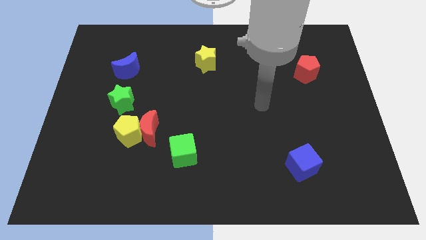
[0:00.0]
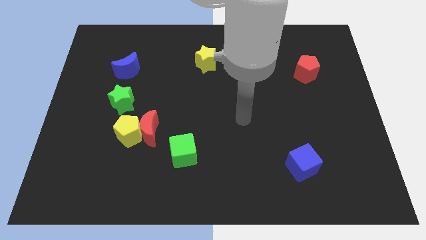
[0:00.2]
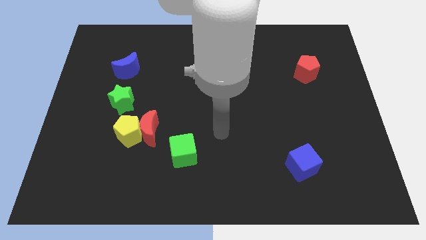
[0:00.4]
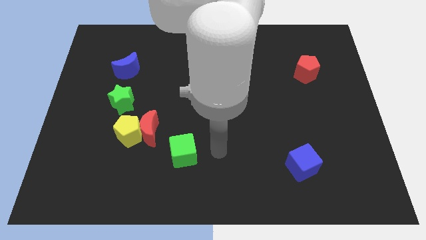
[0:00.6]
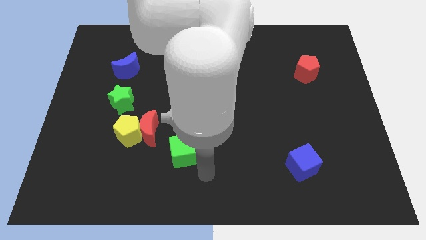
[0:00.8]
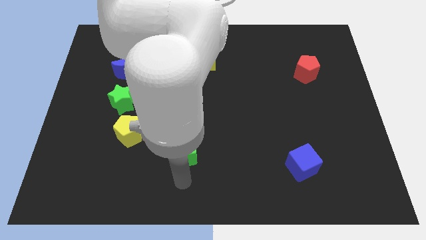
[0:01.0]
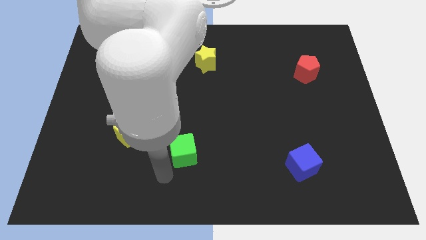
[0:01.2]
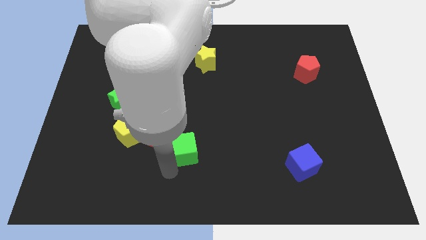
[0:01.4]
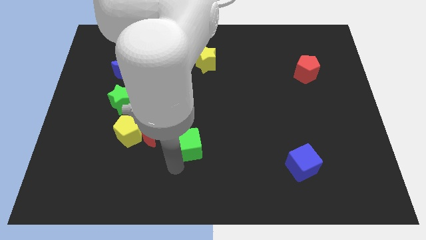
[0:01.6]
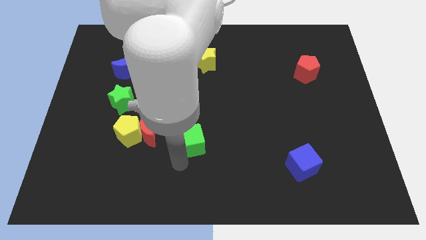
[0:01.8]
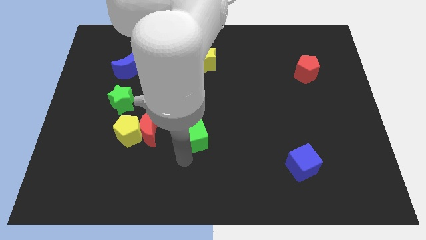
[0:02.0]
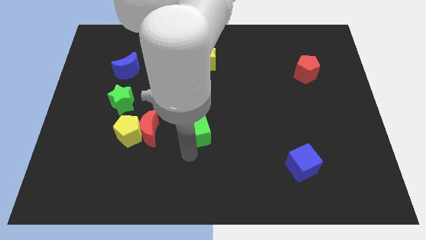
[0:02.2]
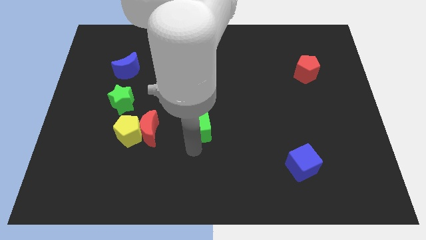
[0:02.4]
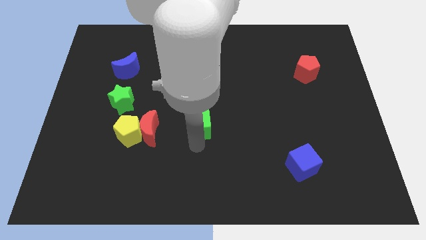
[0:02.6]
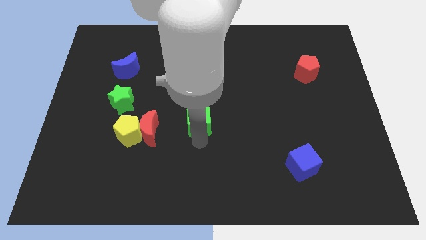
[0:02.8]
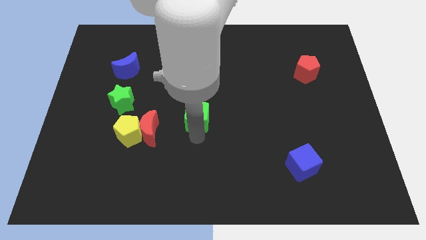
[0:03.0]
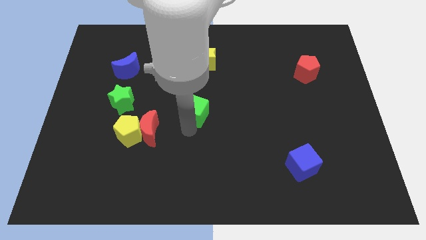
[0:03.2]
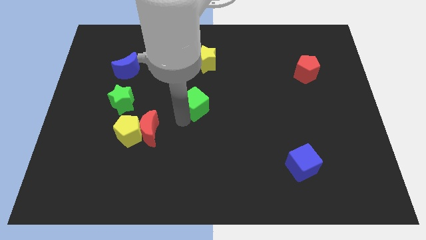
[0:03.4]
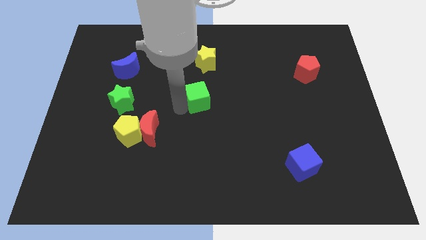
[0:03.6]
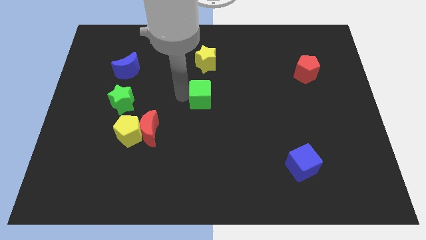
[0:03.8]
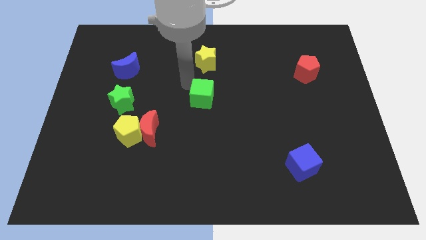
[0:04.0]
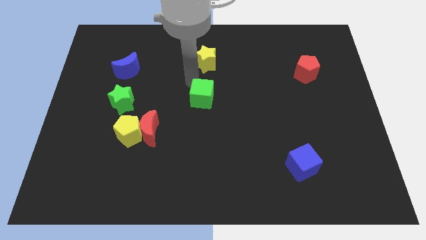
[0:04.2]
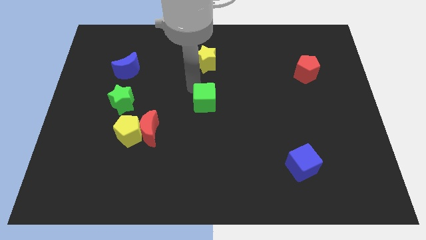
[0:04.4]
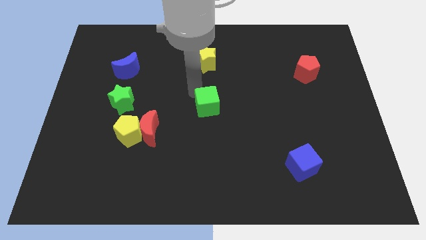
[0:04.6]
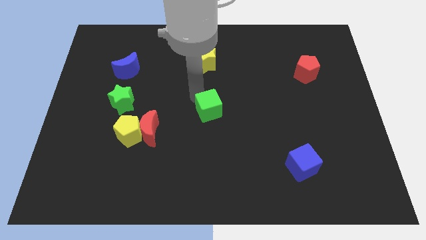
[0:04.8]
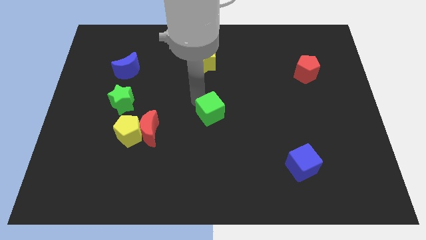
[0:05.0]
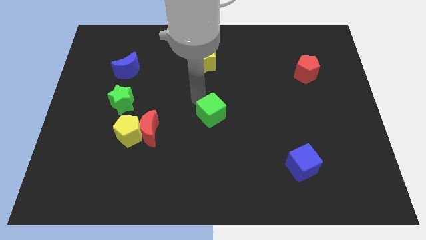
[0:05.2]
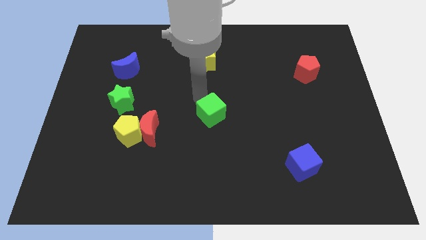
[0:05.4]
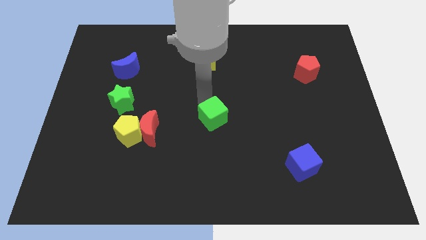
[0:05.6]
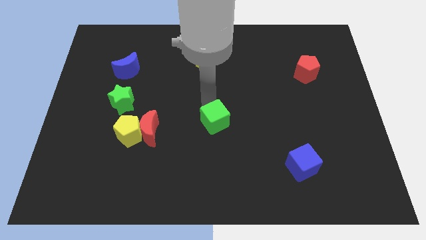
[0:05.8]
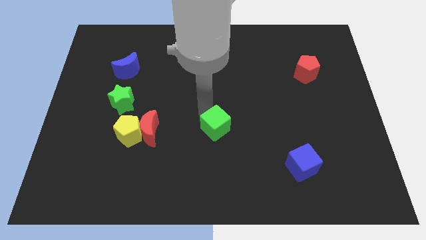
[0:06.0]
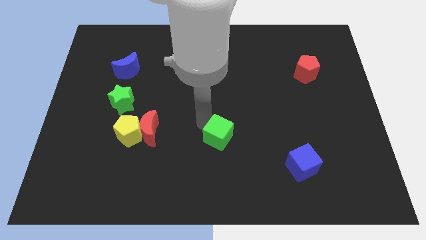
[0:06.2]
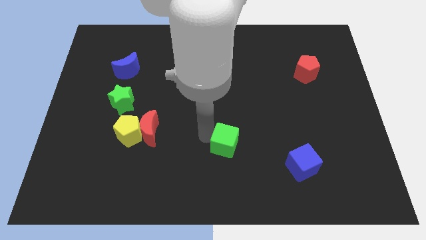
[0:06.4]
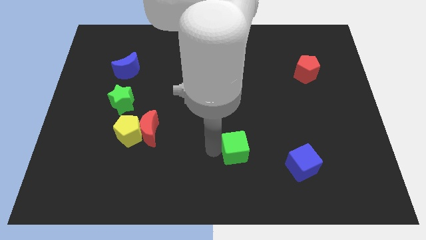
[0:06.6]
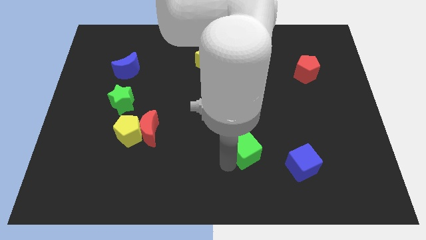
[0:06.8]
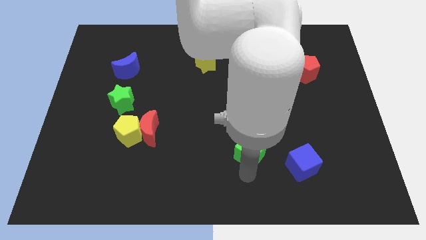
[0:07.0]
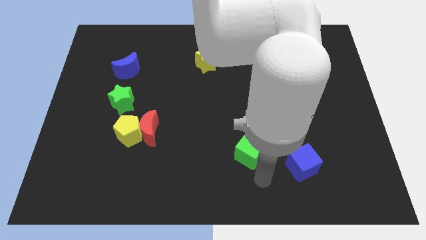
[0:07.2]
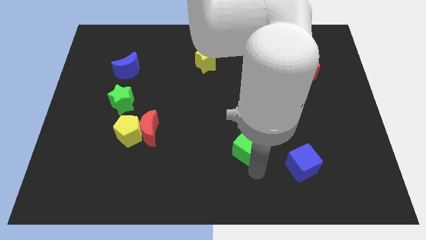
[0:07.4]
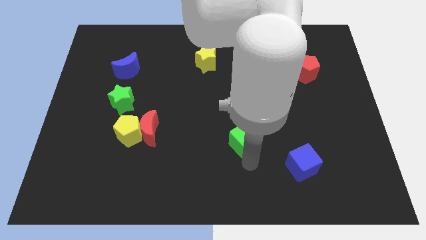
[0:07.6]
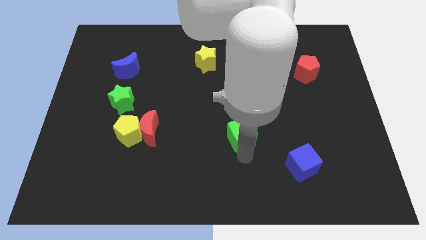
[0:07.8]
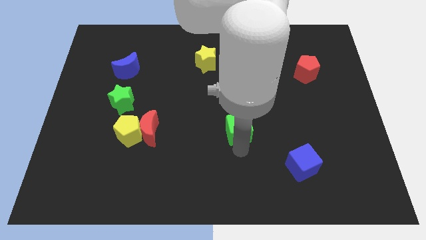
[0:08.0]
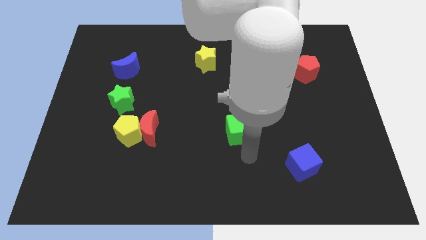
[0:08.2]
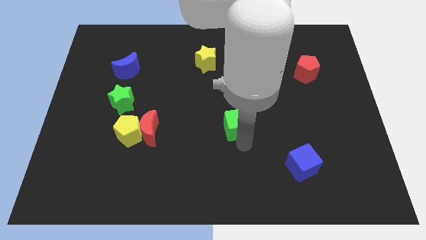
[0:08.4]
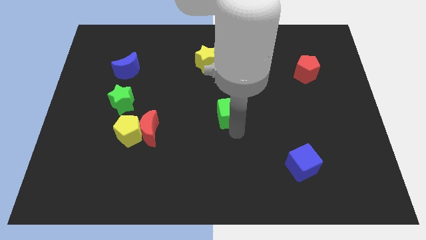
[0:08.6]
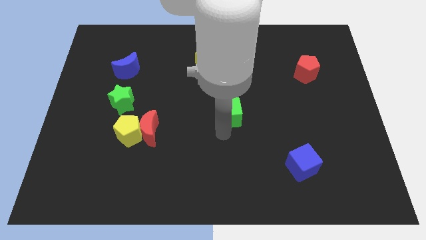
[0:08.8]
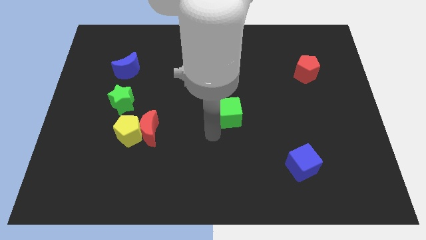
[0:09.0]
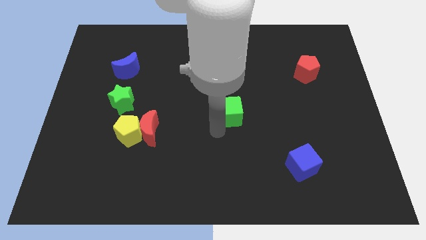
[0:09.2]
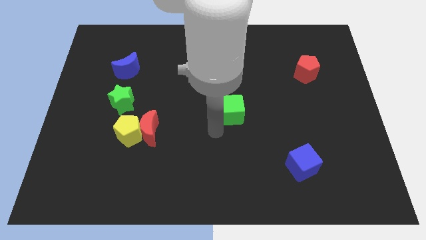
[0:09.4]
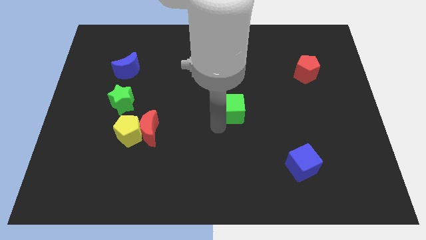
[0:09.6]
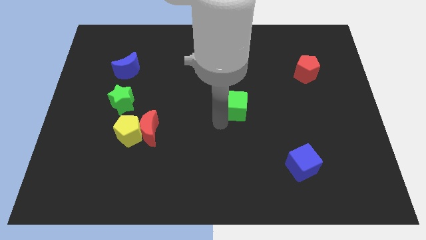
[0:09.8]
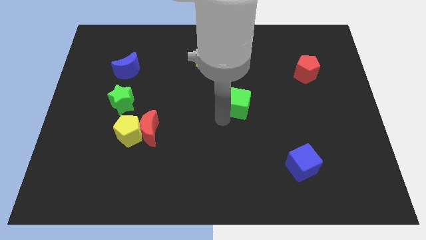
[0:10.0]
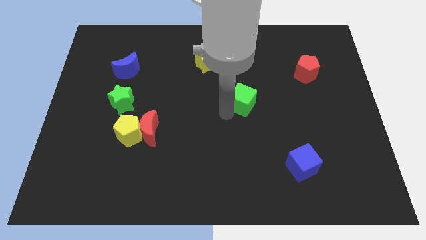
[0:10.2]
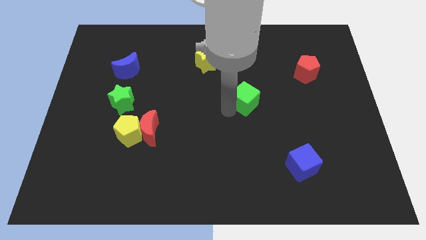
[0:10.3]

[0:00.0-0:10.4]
move the green cube upwards and then to the right

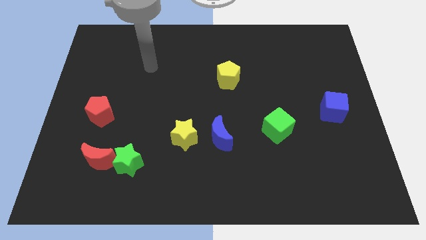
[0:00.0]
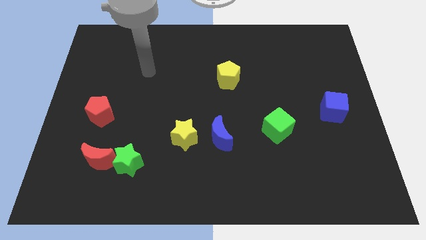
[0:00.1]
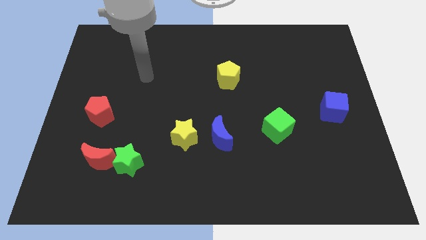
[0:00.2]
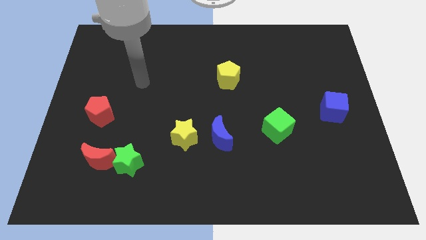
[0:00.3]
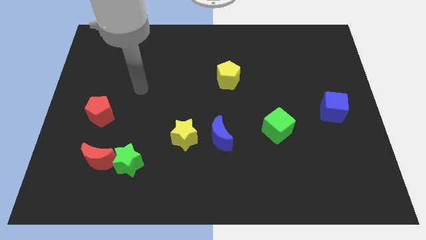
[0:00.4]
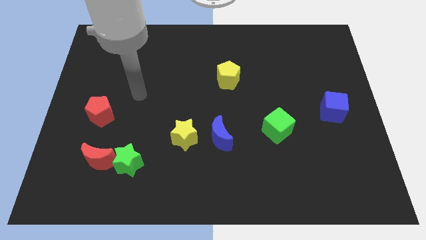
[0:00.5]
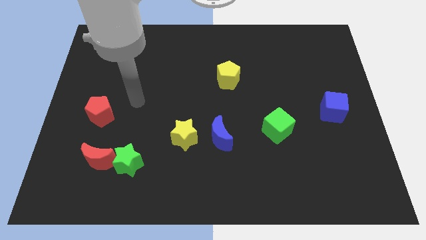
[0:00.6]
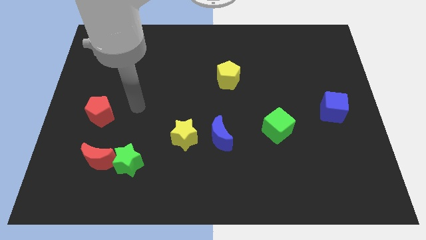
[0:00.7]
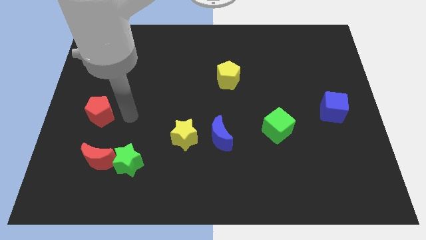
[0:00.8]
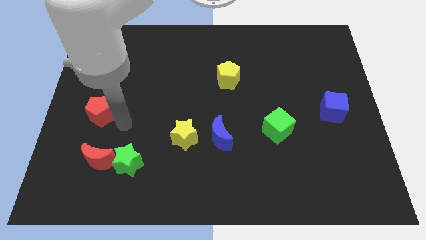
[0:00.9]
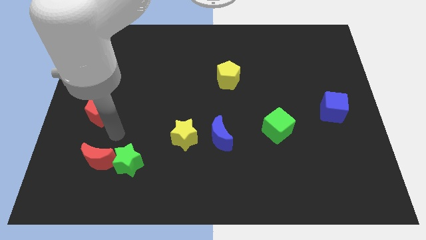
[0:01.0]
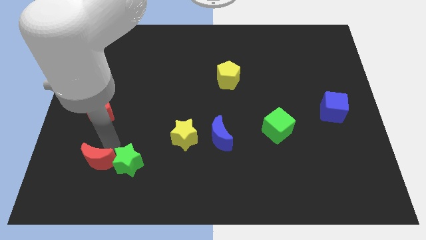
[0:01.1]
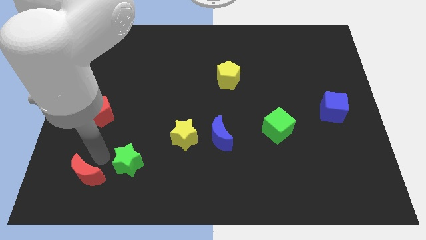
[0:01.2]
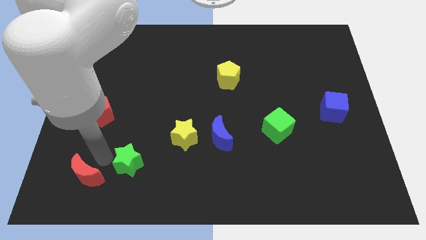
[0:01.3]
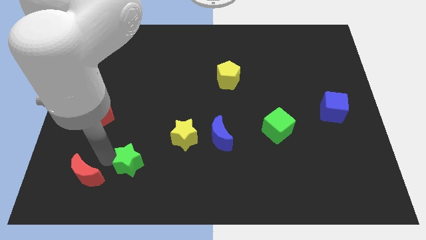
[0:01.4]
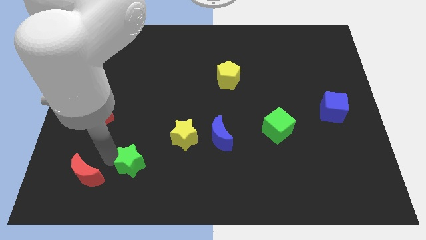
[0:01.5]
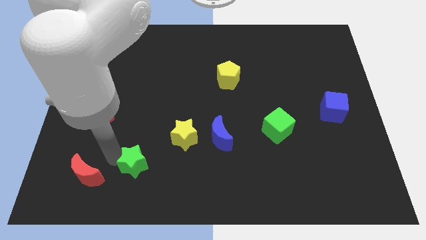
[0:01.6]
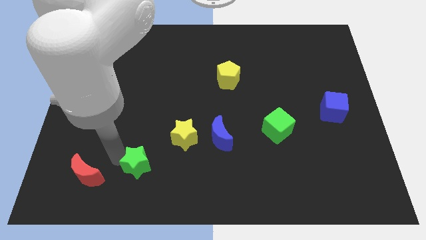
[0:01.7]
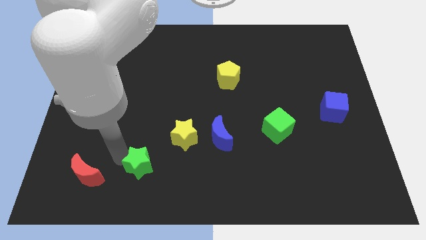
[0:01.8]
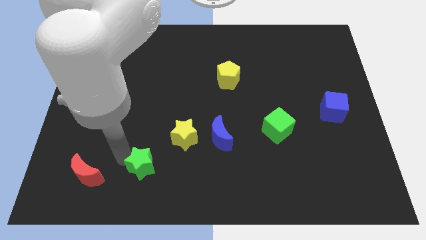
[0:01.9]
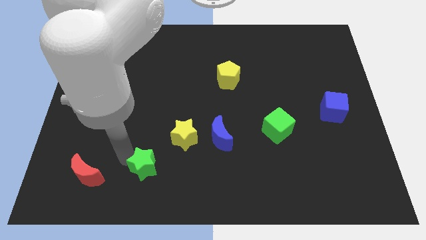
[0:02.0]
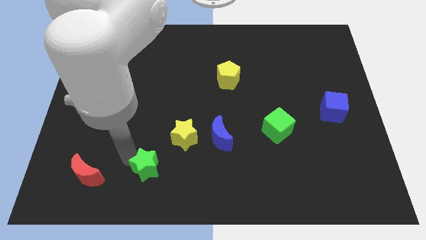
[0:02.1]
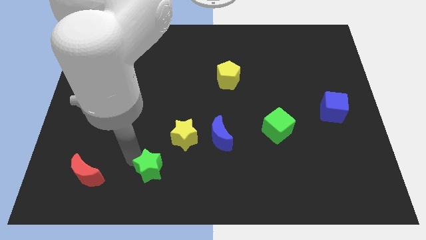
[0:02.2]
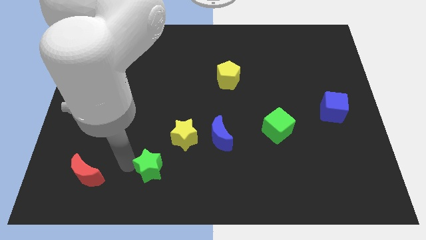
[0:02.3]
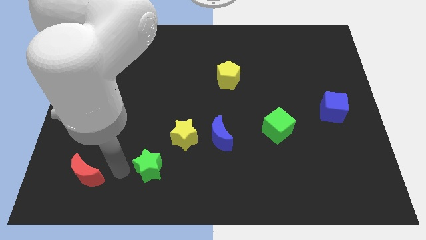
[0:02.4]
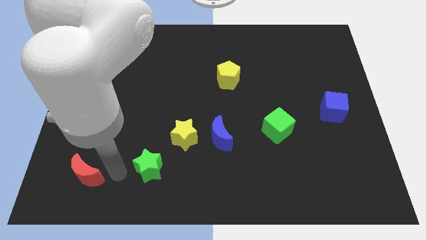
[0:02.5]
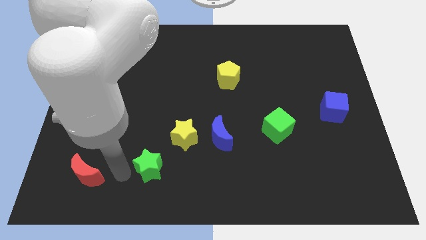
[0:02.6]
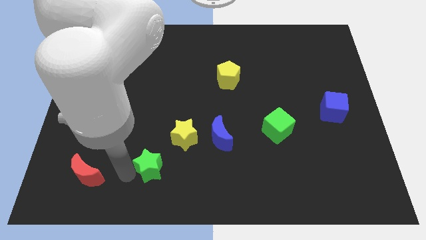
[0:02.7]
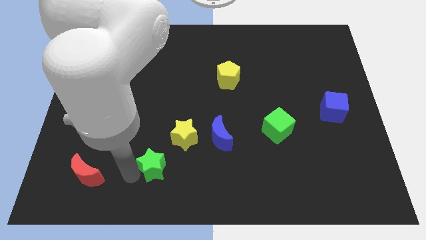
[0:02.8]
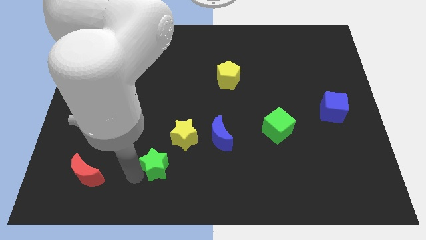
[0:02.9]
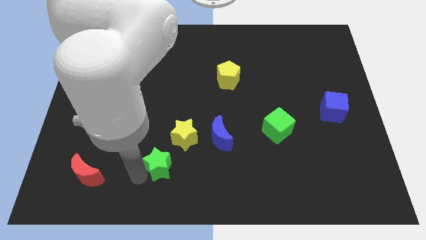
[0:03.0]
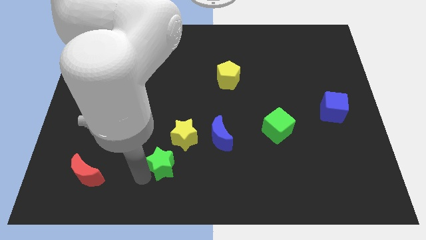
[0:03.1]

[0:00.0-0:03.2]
push the green star somewhat right
